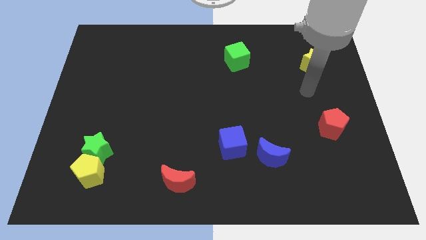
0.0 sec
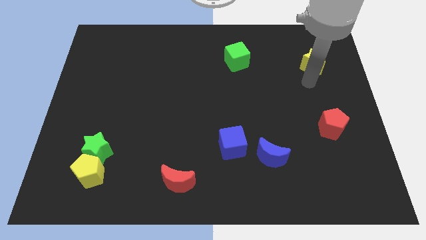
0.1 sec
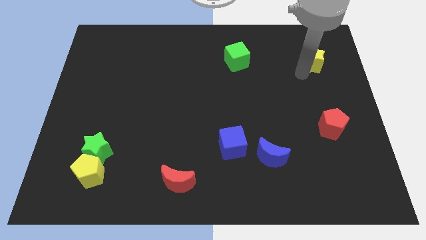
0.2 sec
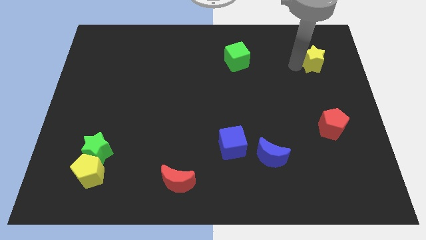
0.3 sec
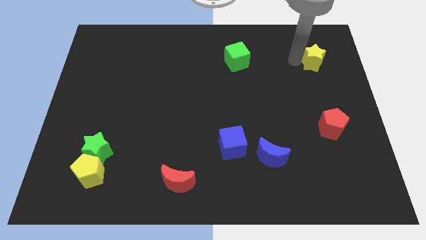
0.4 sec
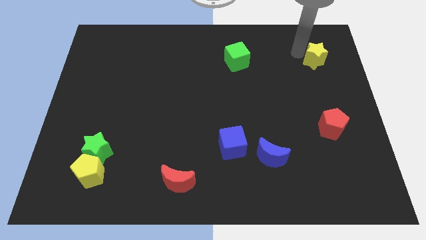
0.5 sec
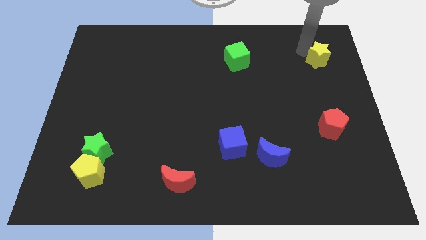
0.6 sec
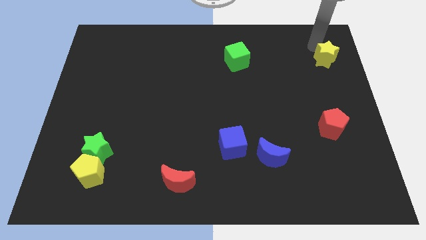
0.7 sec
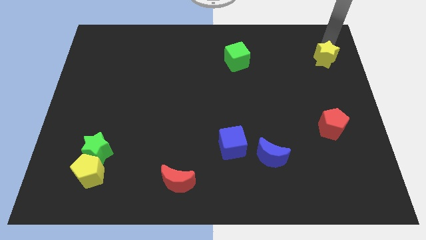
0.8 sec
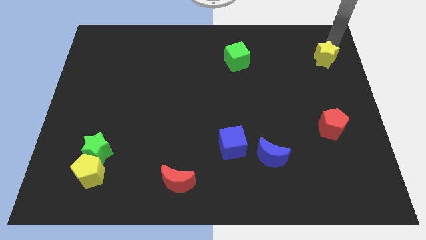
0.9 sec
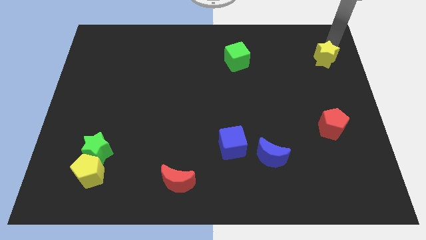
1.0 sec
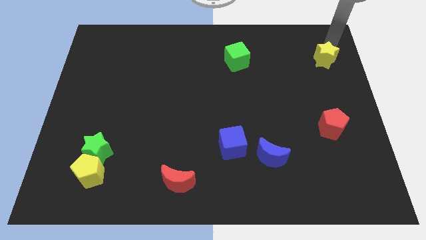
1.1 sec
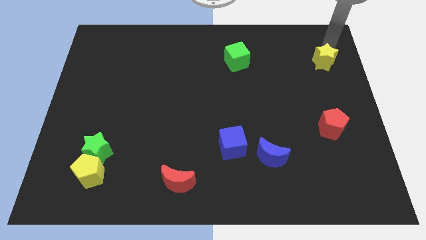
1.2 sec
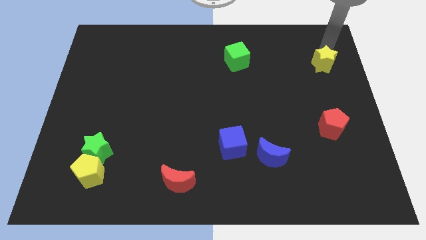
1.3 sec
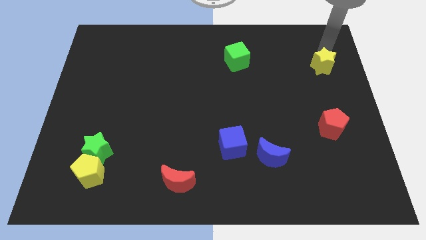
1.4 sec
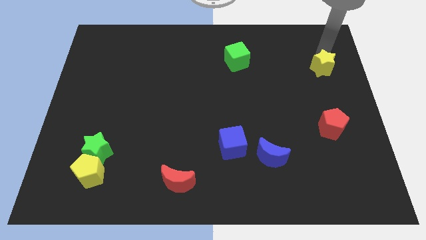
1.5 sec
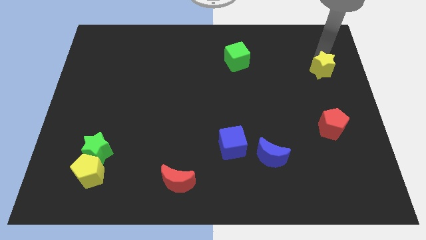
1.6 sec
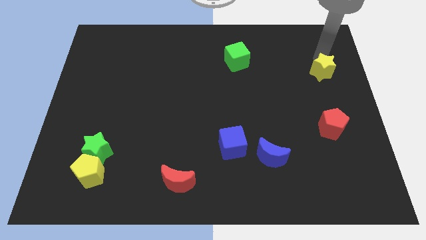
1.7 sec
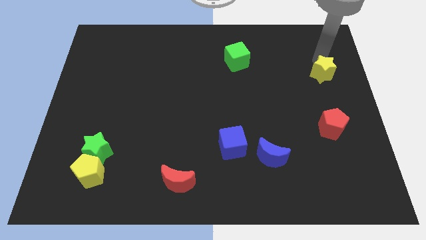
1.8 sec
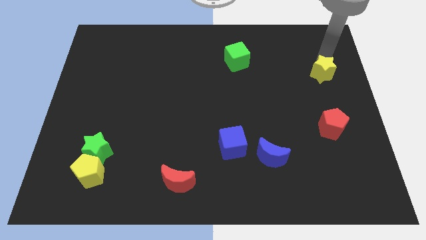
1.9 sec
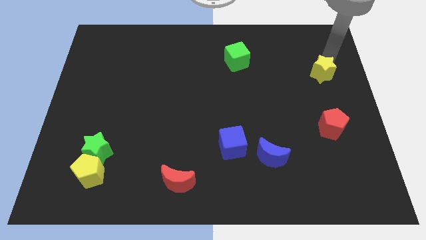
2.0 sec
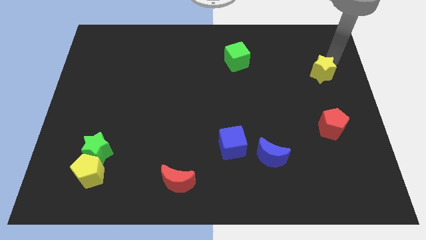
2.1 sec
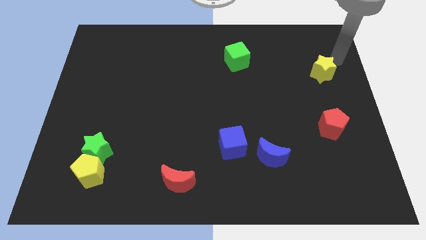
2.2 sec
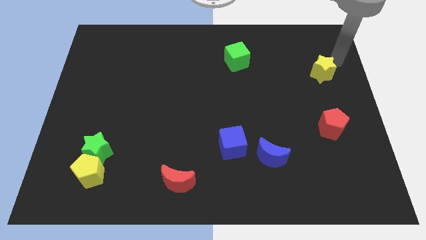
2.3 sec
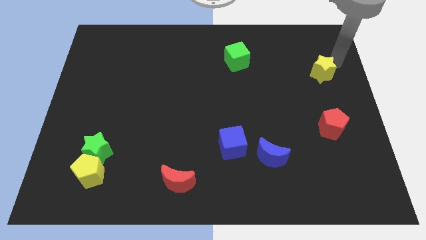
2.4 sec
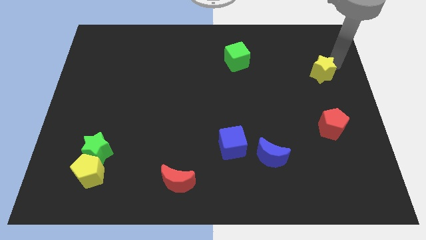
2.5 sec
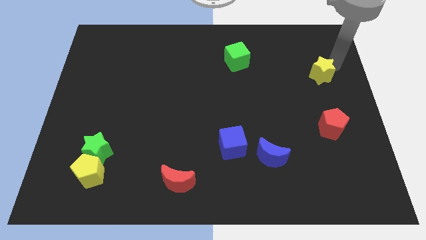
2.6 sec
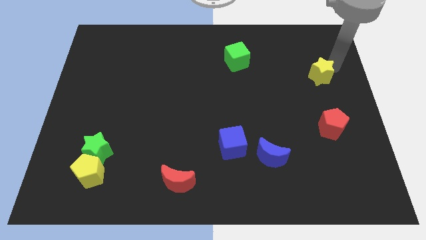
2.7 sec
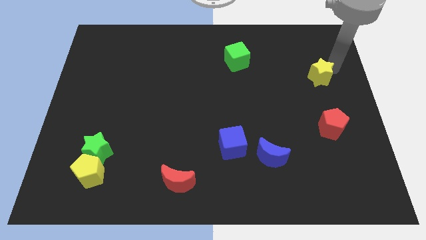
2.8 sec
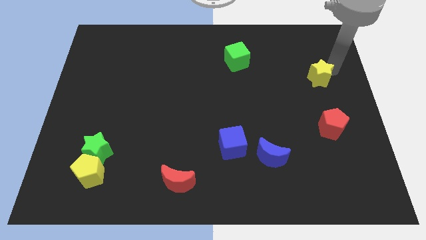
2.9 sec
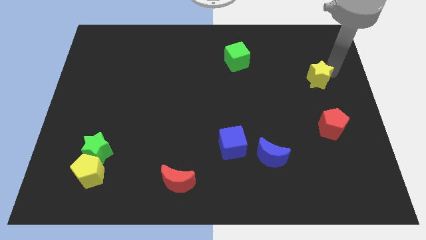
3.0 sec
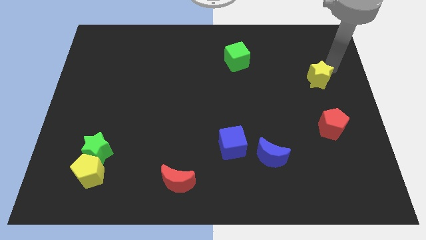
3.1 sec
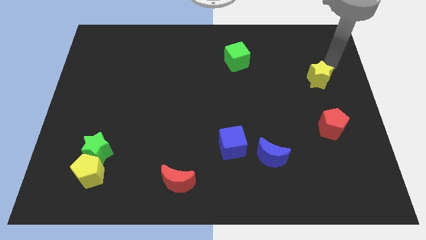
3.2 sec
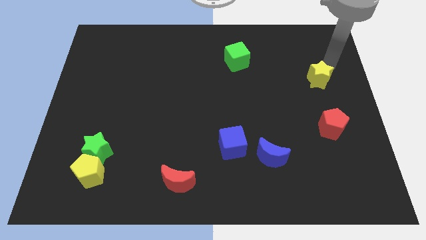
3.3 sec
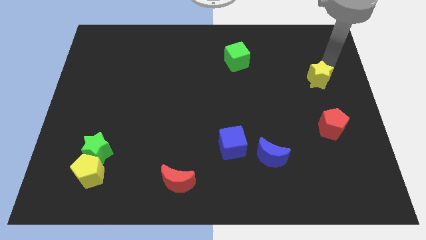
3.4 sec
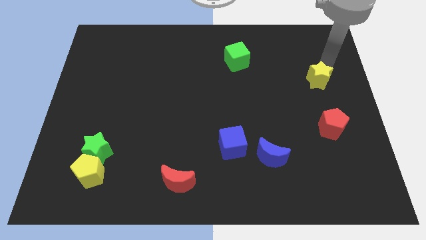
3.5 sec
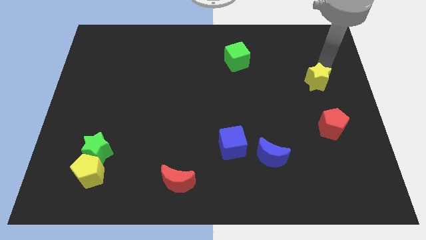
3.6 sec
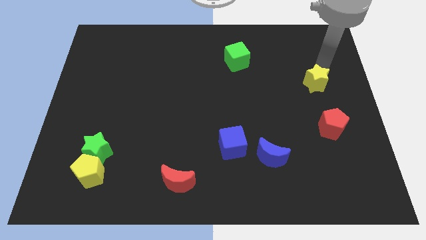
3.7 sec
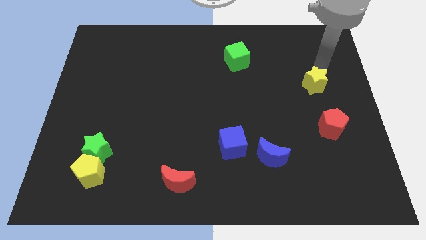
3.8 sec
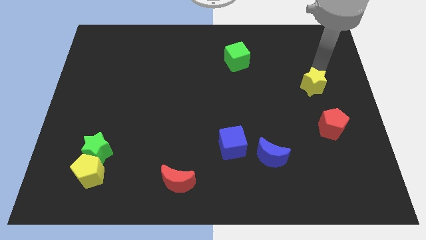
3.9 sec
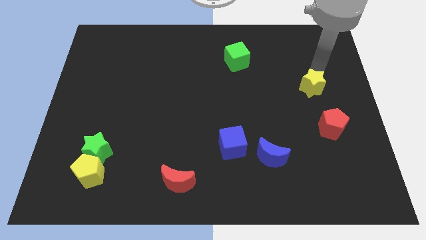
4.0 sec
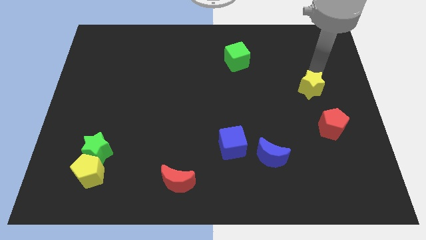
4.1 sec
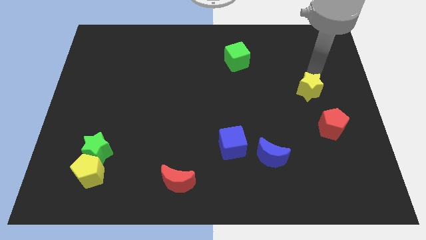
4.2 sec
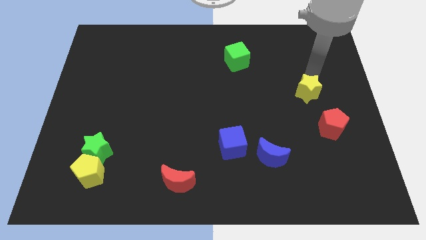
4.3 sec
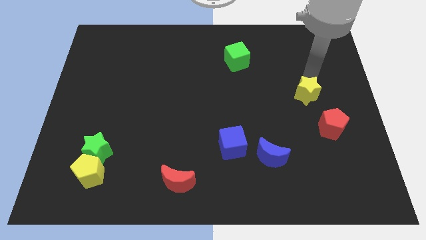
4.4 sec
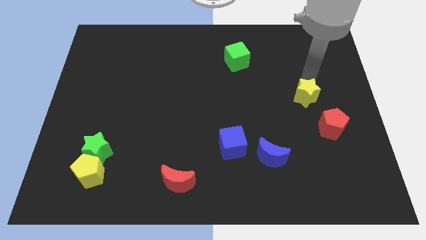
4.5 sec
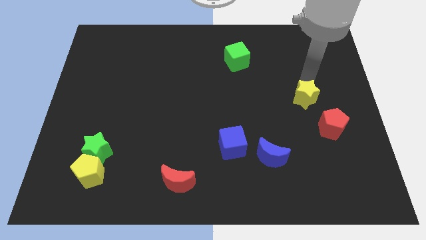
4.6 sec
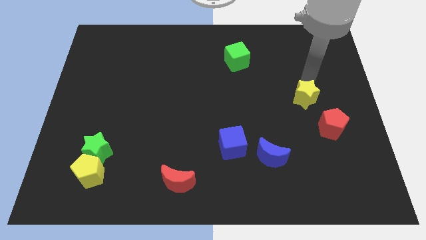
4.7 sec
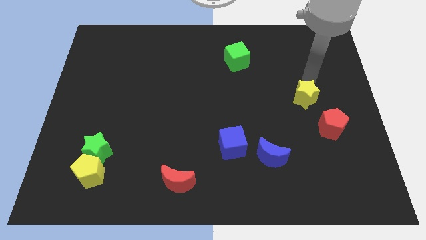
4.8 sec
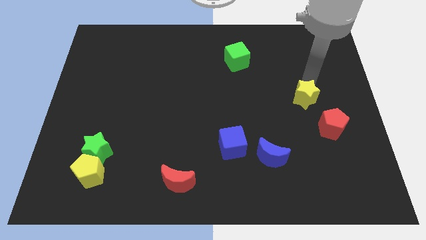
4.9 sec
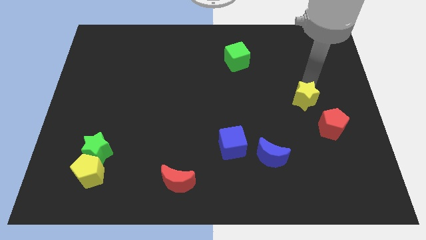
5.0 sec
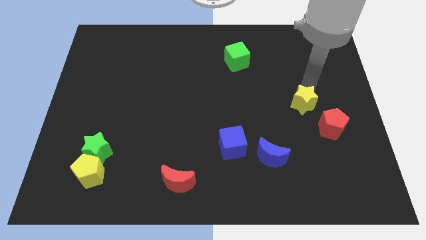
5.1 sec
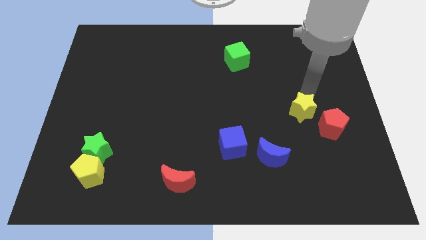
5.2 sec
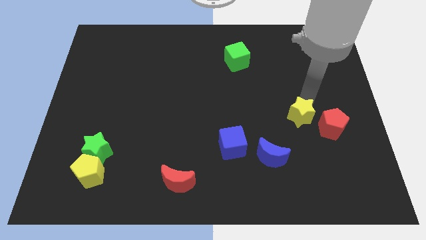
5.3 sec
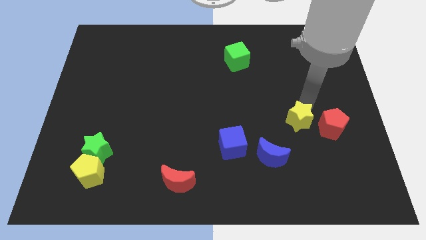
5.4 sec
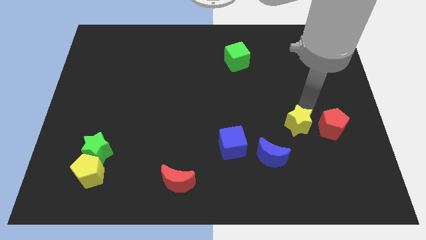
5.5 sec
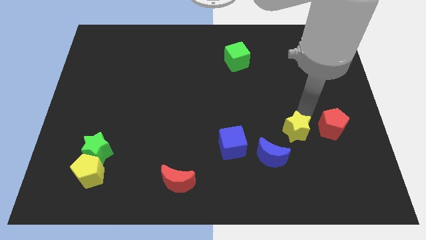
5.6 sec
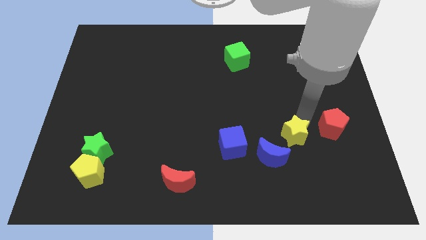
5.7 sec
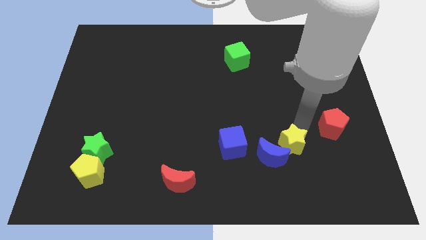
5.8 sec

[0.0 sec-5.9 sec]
put the yellow star to the blue moon

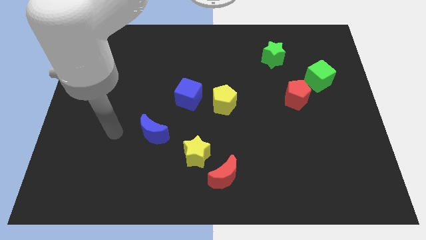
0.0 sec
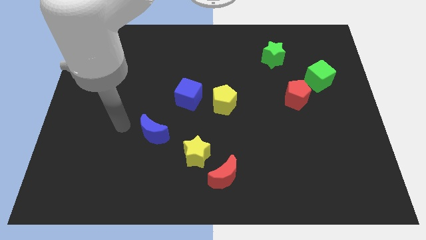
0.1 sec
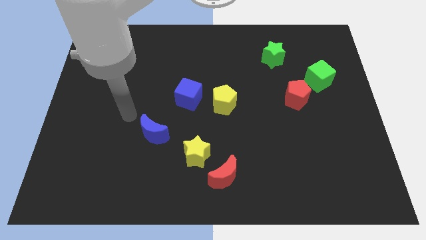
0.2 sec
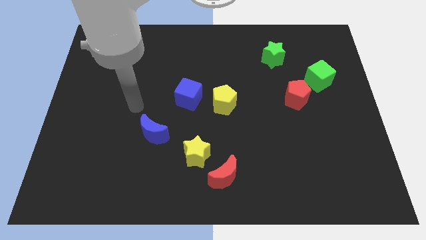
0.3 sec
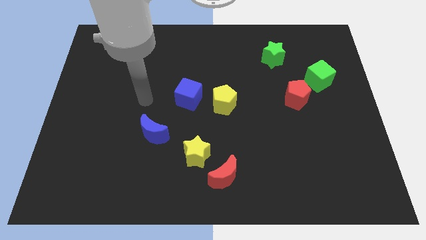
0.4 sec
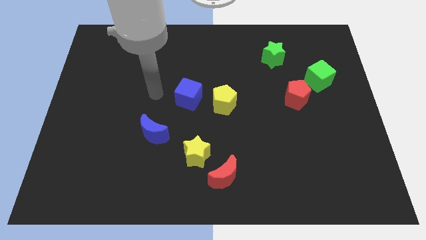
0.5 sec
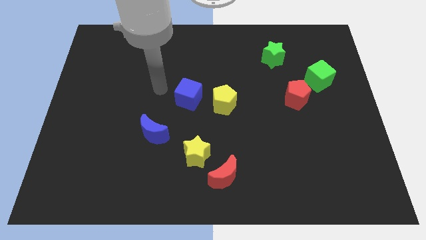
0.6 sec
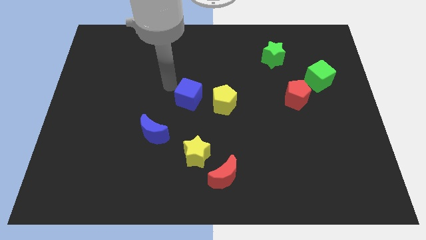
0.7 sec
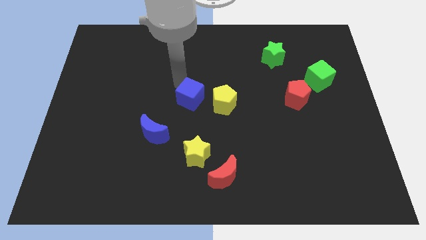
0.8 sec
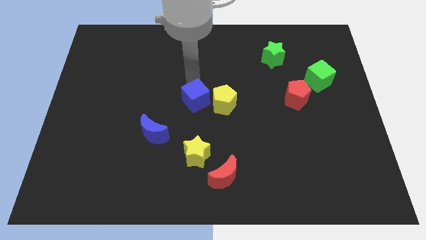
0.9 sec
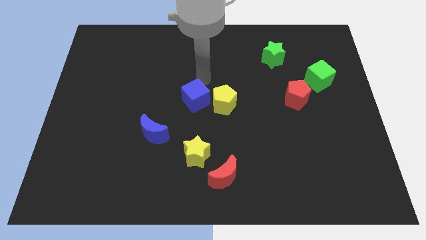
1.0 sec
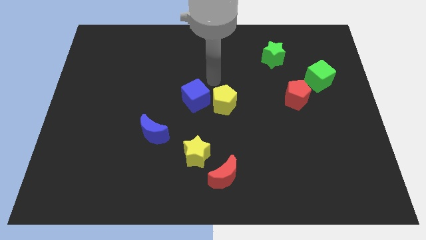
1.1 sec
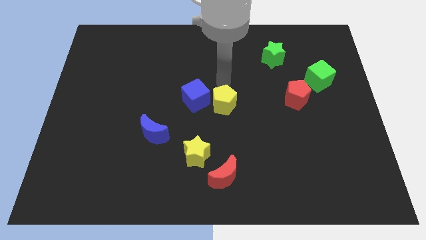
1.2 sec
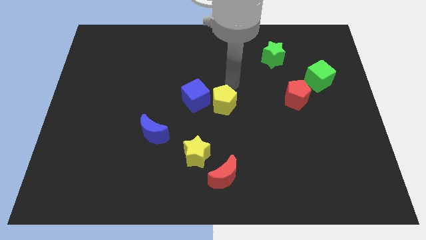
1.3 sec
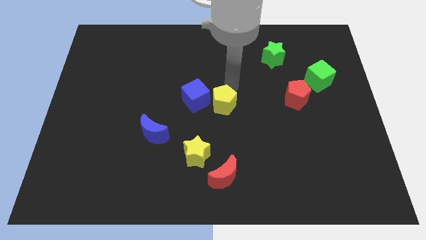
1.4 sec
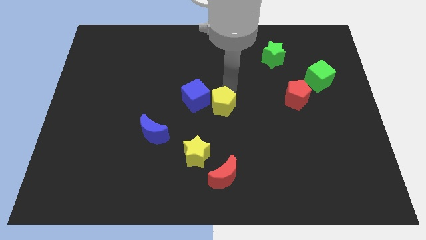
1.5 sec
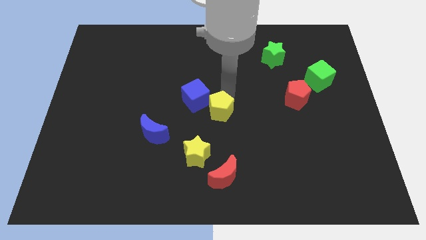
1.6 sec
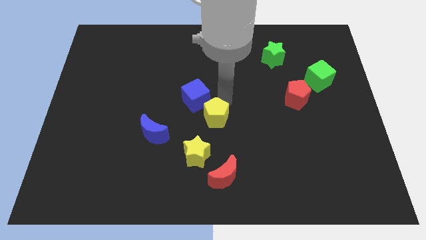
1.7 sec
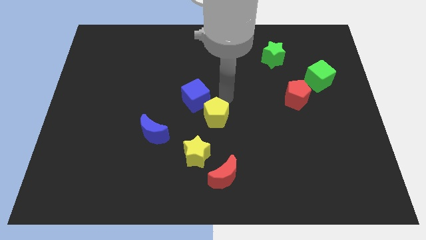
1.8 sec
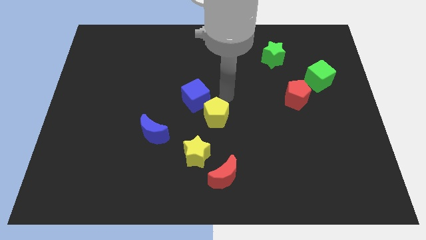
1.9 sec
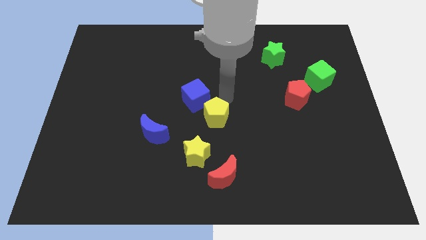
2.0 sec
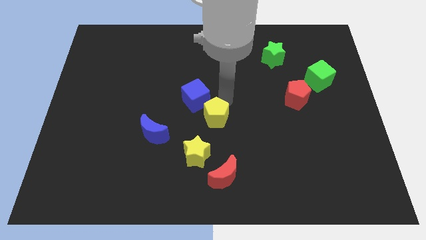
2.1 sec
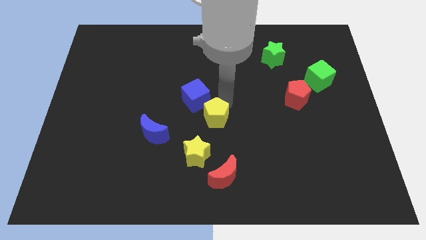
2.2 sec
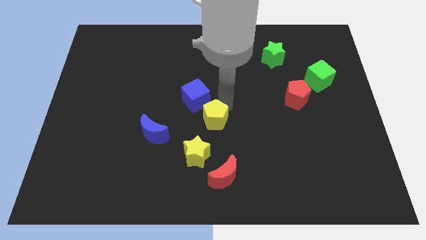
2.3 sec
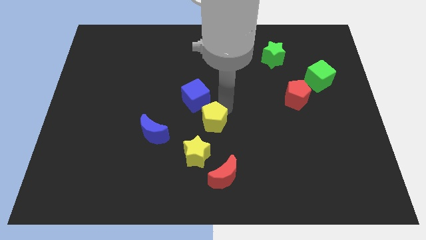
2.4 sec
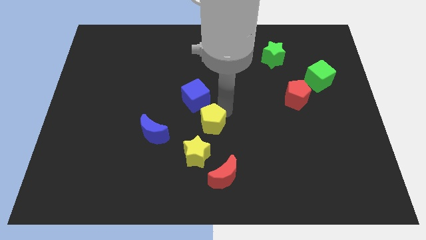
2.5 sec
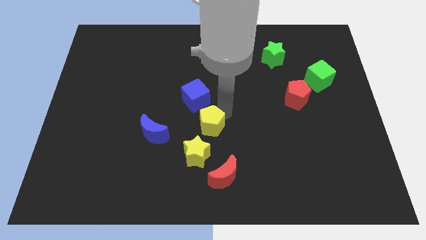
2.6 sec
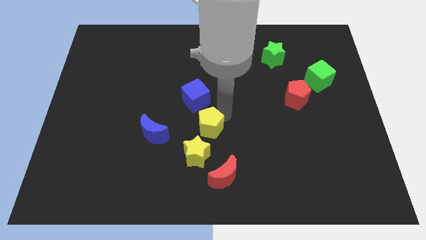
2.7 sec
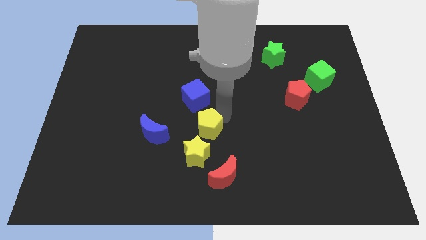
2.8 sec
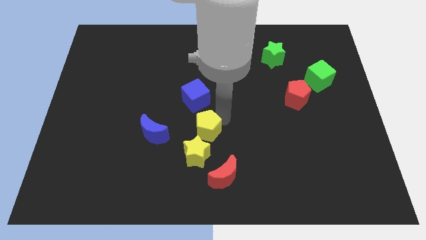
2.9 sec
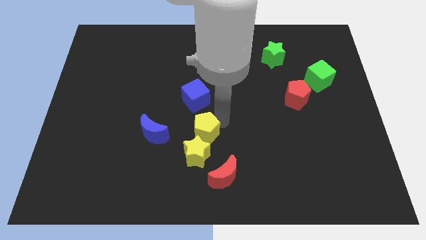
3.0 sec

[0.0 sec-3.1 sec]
move the yellow pentagon to the yellow star
